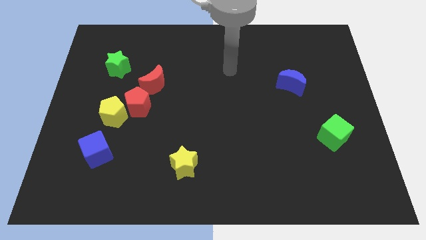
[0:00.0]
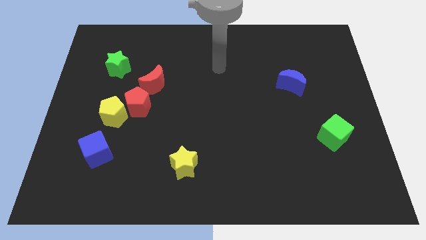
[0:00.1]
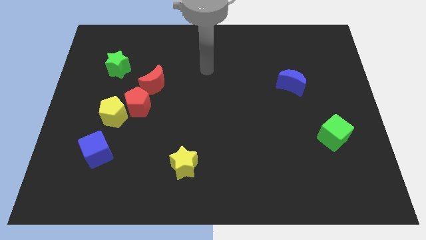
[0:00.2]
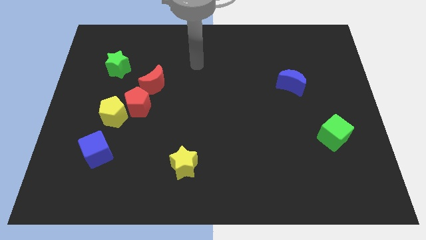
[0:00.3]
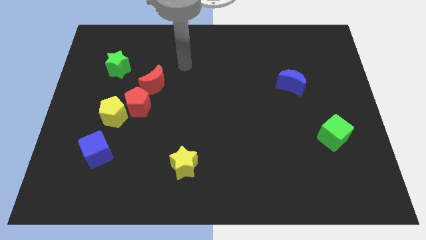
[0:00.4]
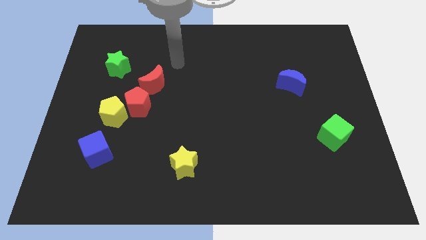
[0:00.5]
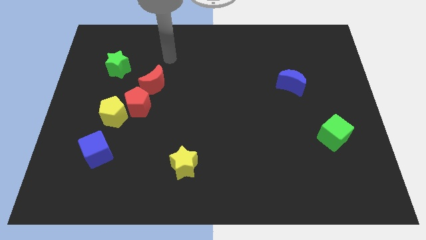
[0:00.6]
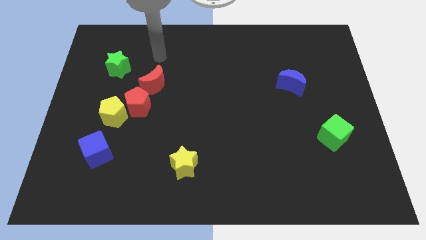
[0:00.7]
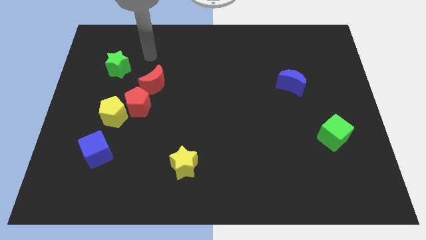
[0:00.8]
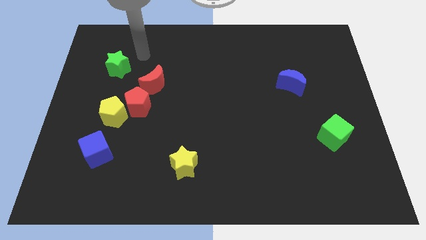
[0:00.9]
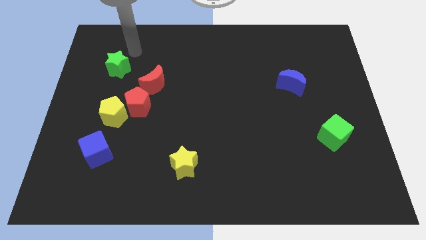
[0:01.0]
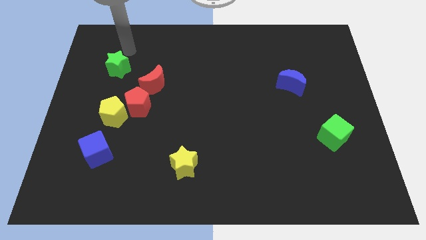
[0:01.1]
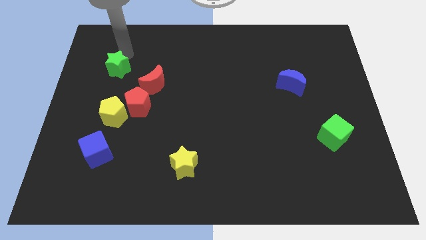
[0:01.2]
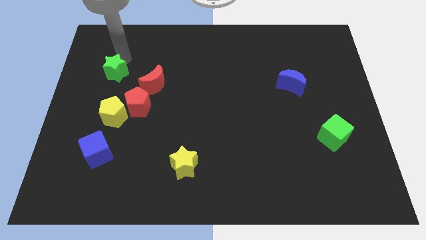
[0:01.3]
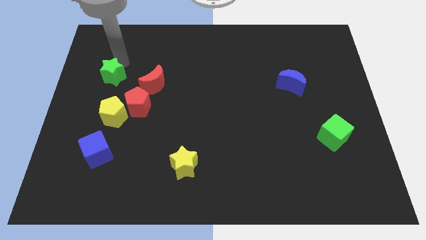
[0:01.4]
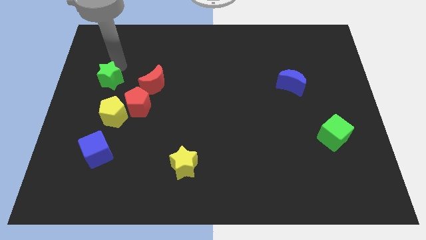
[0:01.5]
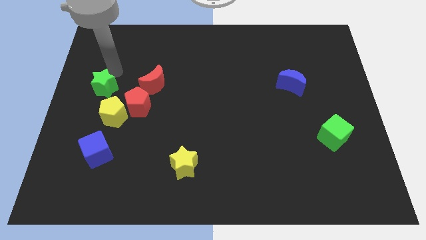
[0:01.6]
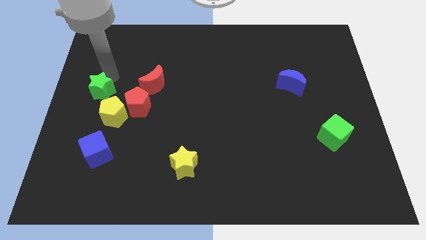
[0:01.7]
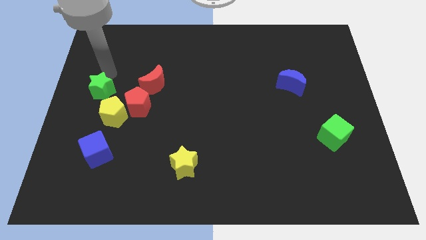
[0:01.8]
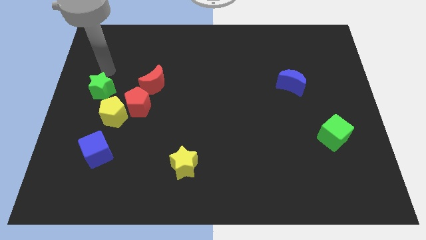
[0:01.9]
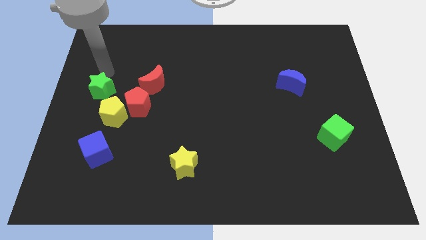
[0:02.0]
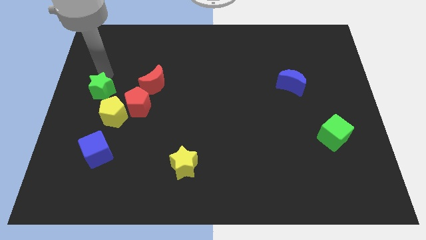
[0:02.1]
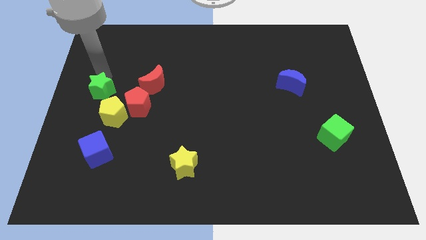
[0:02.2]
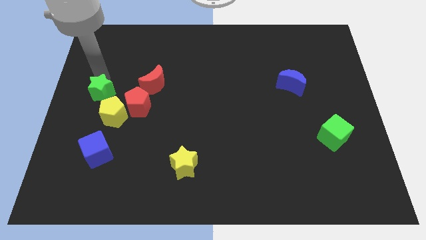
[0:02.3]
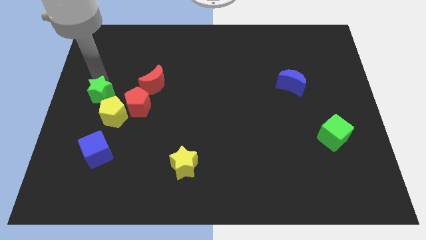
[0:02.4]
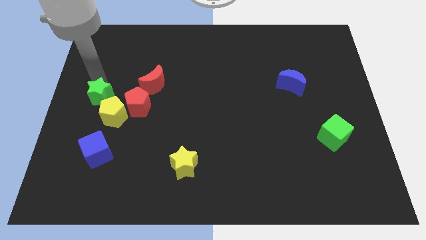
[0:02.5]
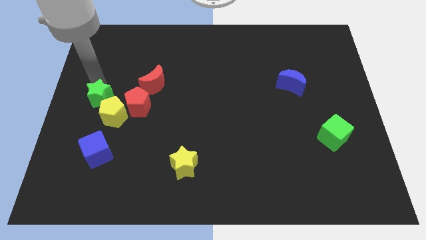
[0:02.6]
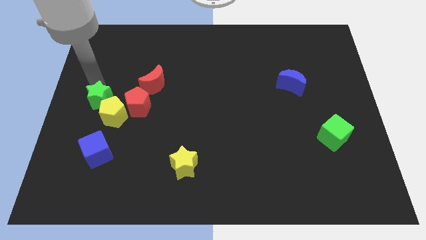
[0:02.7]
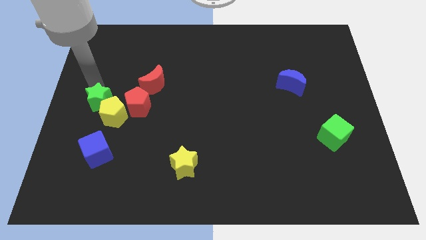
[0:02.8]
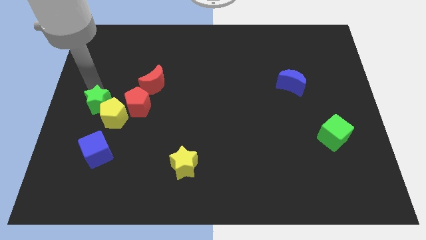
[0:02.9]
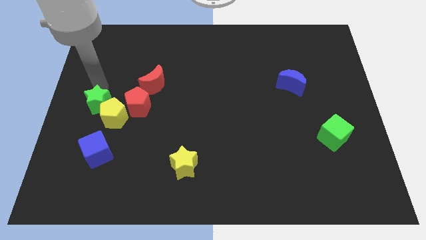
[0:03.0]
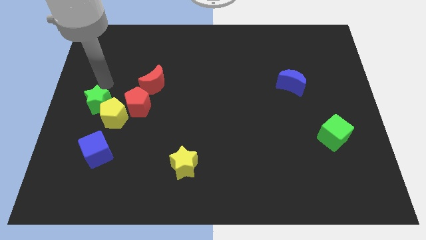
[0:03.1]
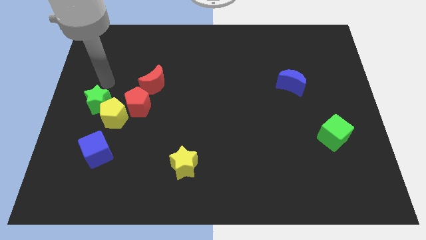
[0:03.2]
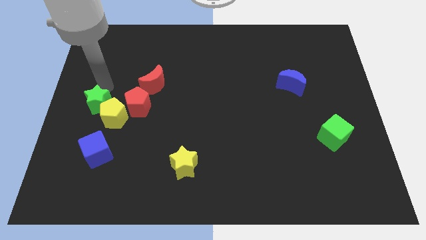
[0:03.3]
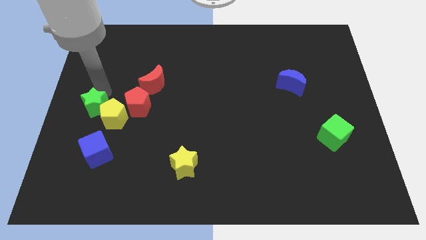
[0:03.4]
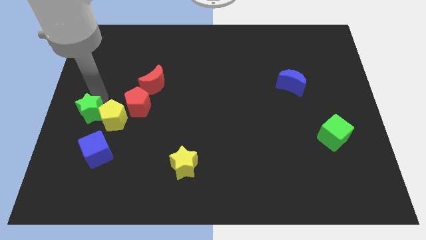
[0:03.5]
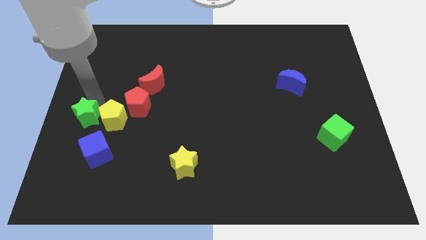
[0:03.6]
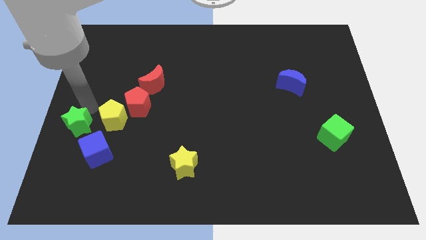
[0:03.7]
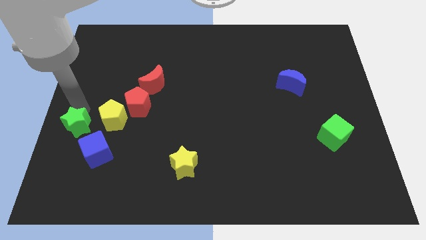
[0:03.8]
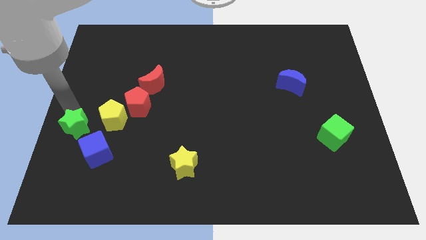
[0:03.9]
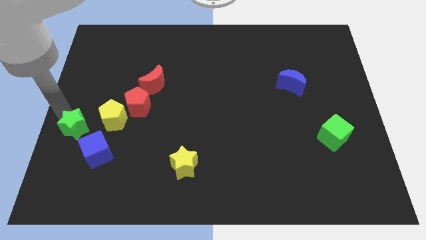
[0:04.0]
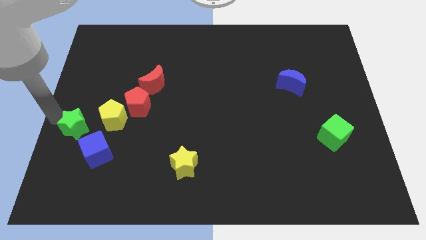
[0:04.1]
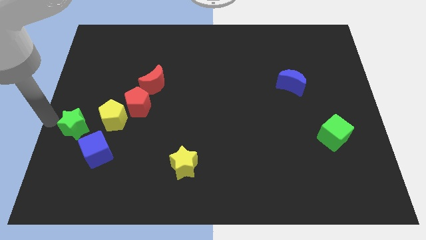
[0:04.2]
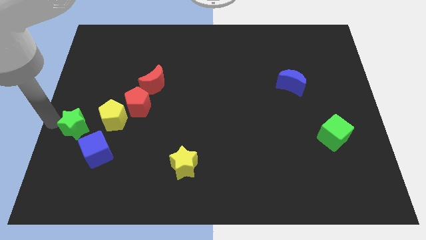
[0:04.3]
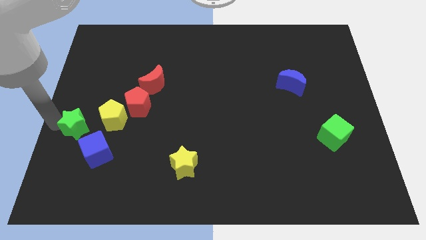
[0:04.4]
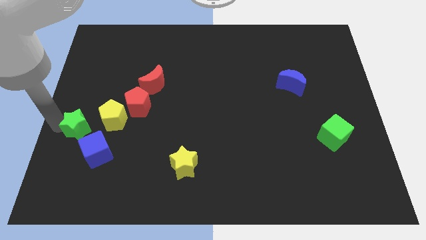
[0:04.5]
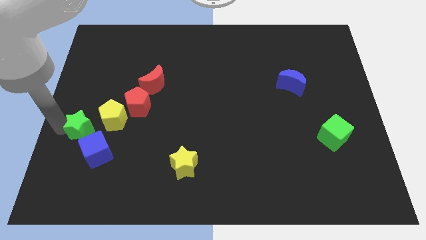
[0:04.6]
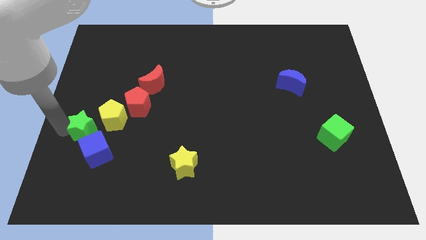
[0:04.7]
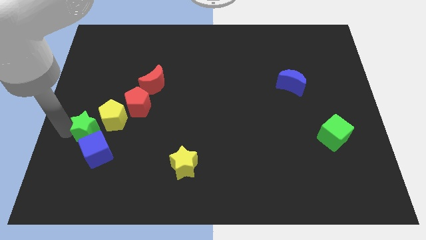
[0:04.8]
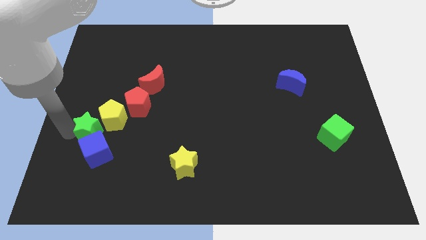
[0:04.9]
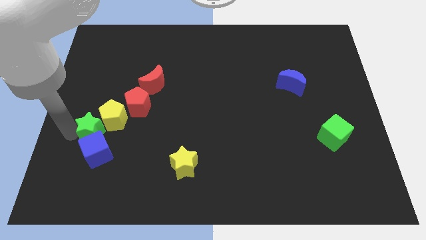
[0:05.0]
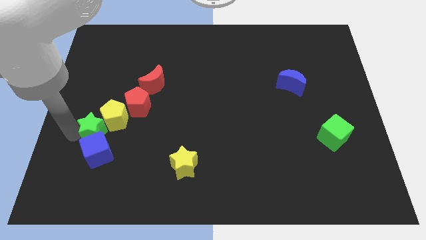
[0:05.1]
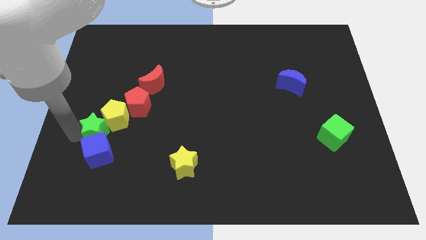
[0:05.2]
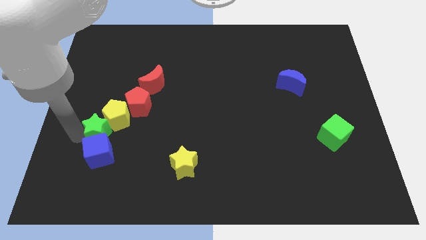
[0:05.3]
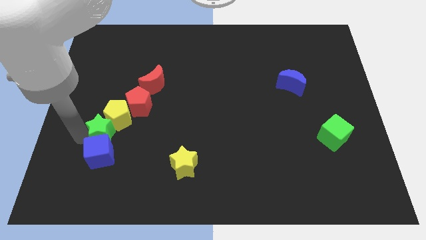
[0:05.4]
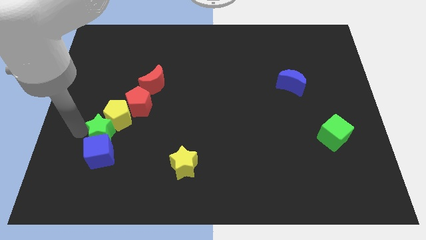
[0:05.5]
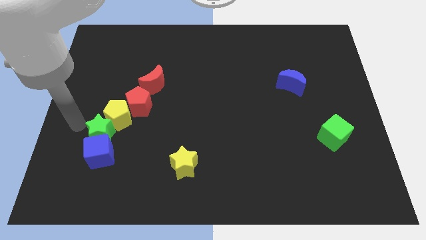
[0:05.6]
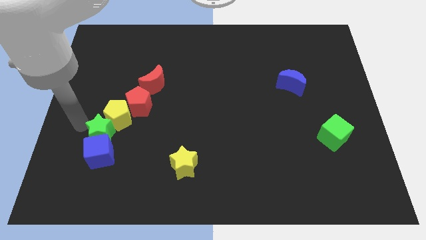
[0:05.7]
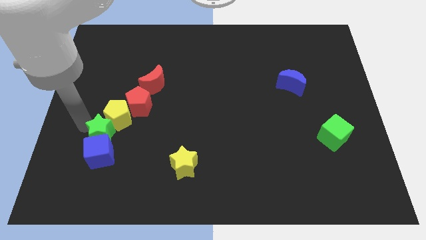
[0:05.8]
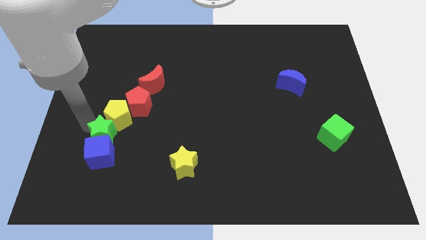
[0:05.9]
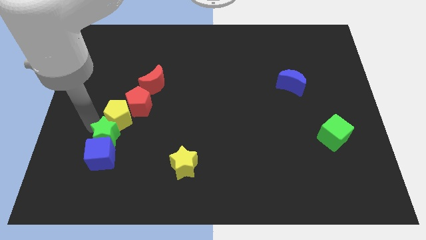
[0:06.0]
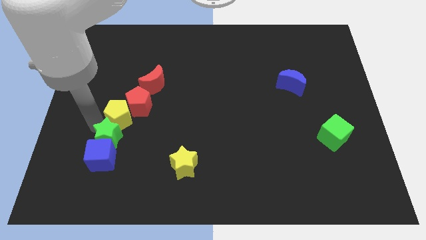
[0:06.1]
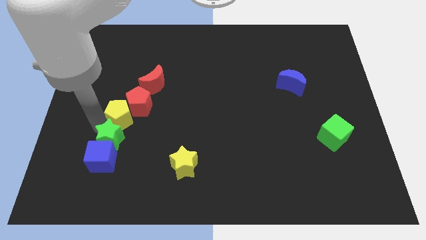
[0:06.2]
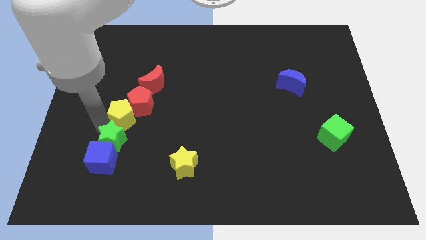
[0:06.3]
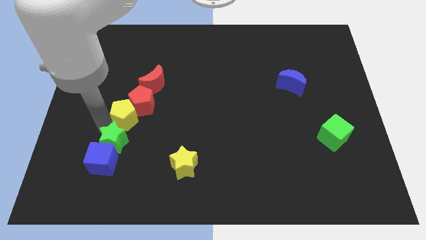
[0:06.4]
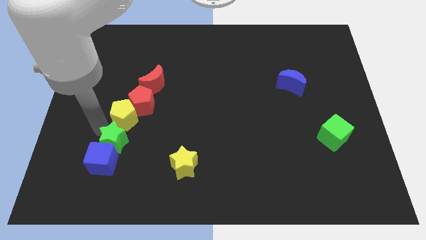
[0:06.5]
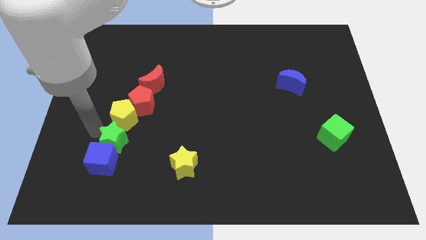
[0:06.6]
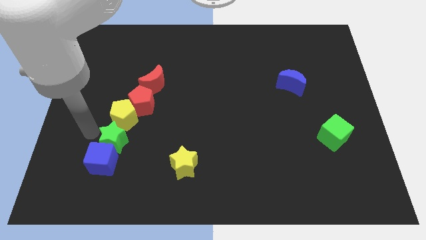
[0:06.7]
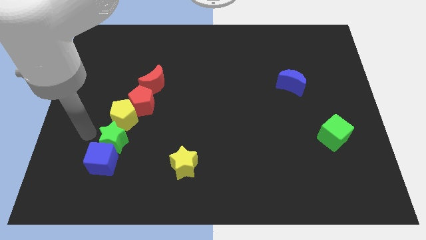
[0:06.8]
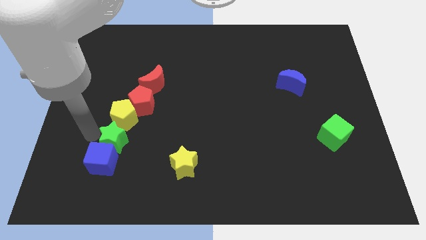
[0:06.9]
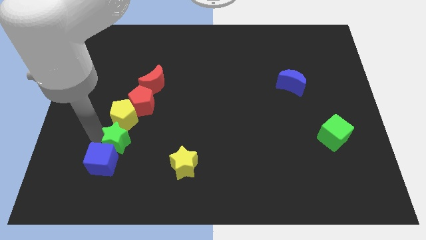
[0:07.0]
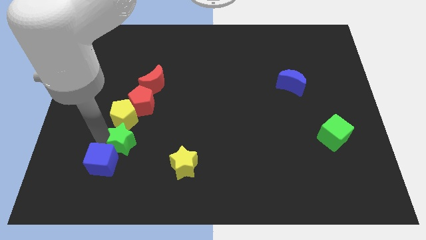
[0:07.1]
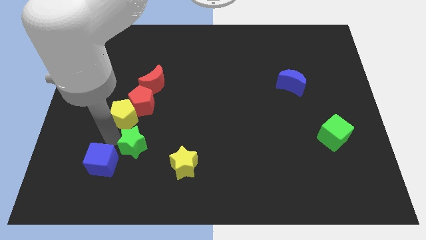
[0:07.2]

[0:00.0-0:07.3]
move the green star to the right side of the blue cube
